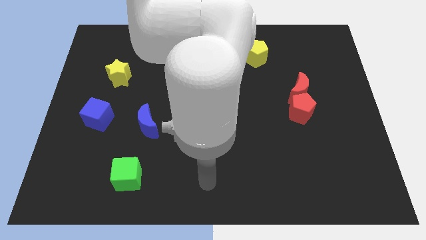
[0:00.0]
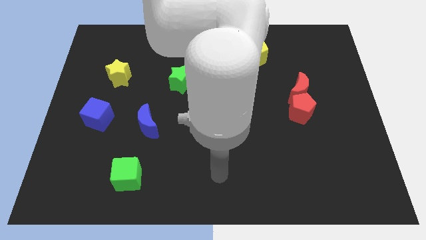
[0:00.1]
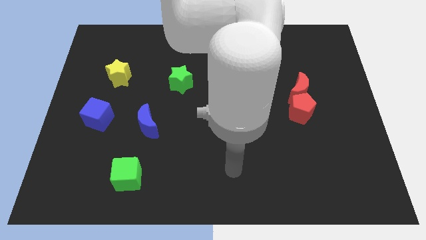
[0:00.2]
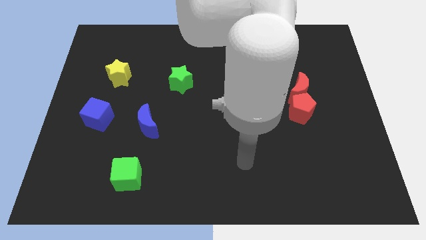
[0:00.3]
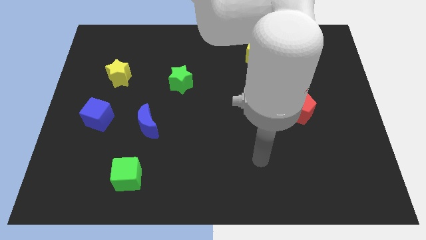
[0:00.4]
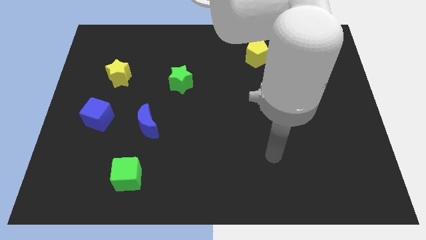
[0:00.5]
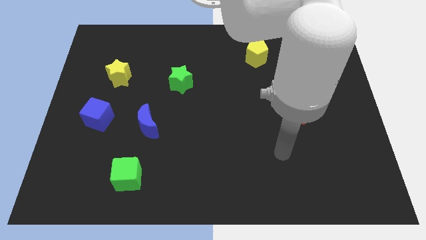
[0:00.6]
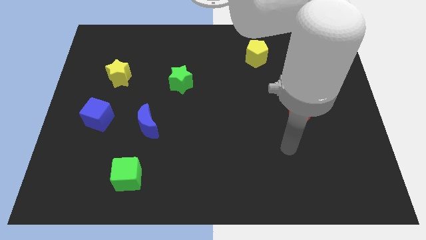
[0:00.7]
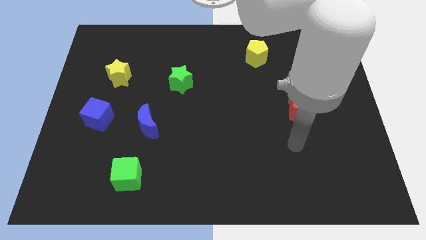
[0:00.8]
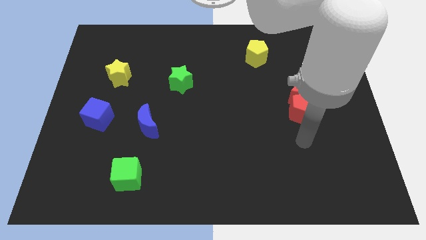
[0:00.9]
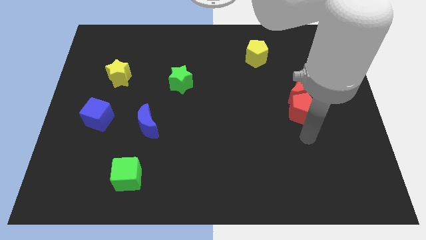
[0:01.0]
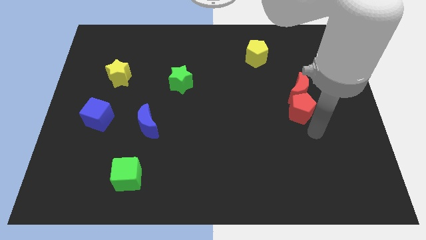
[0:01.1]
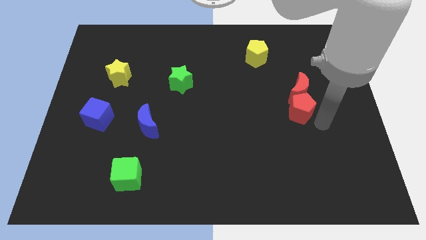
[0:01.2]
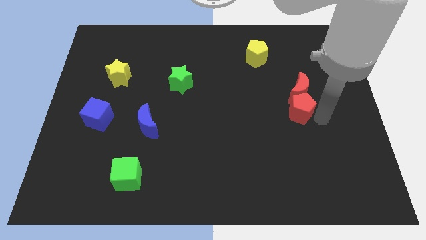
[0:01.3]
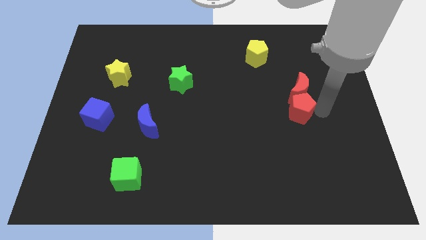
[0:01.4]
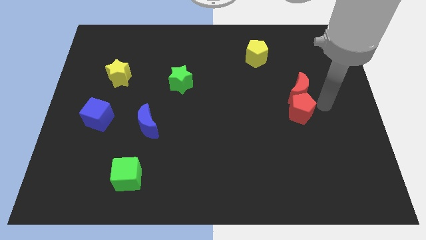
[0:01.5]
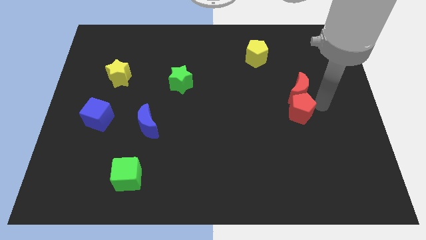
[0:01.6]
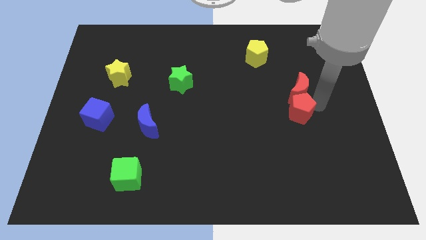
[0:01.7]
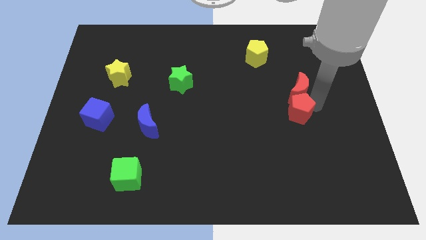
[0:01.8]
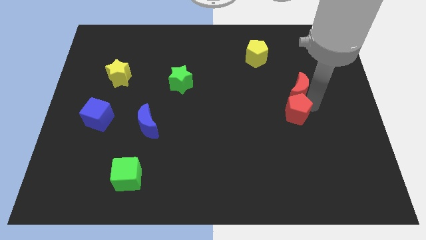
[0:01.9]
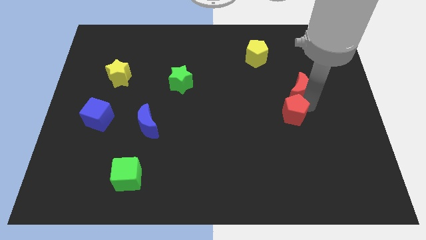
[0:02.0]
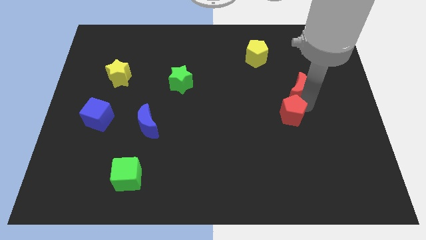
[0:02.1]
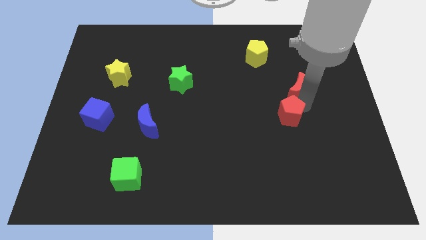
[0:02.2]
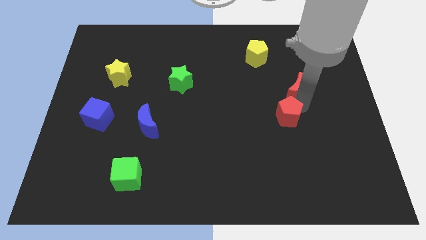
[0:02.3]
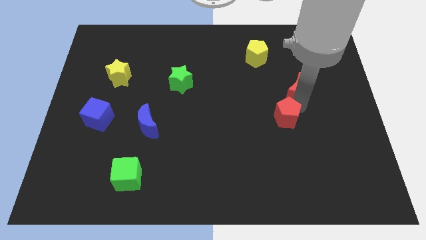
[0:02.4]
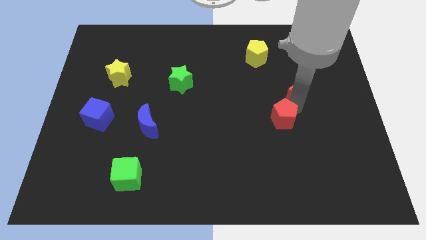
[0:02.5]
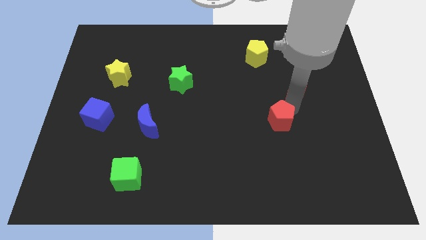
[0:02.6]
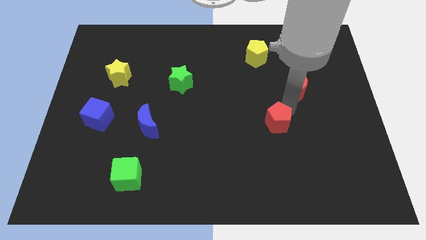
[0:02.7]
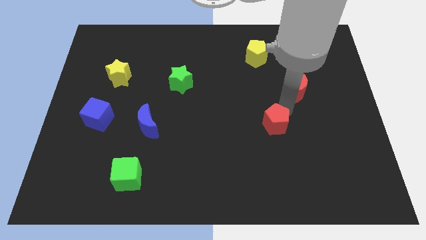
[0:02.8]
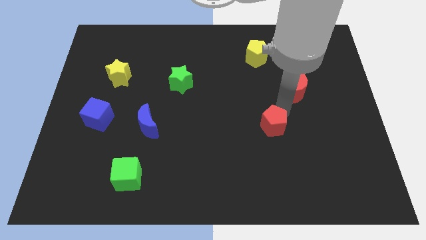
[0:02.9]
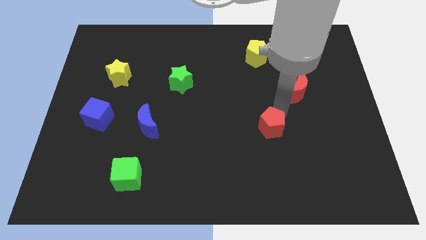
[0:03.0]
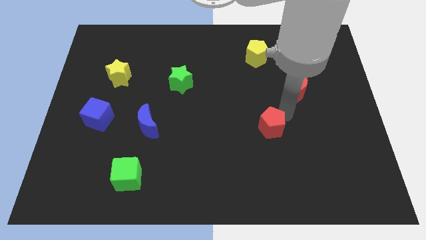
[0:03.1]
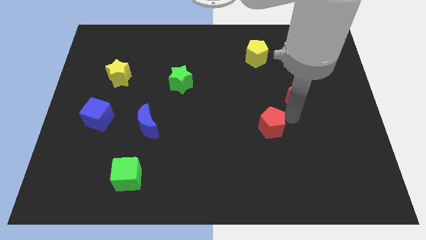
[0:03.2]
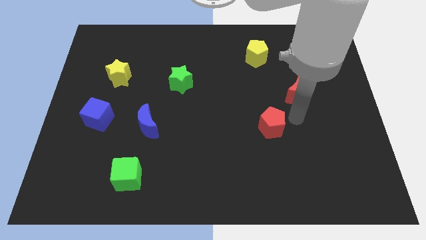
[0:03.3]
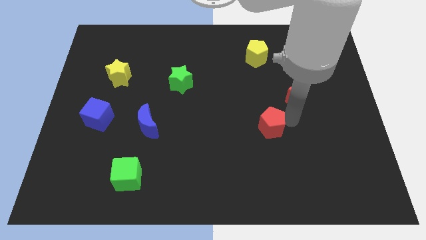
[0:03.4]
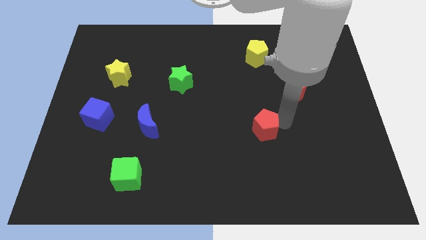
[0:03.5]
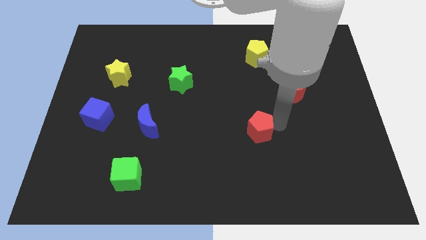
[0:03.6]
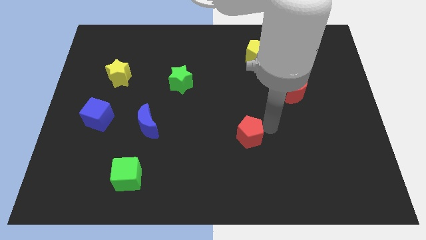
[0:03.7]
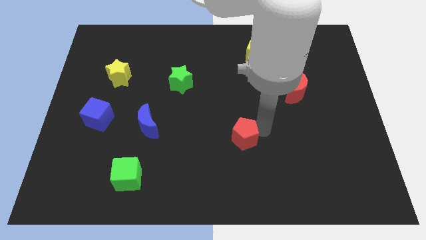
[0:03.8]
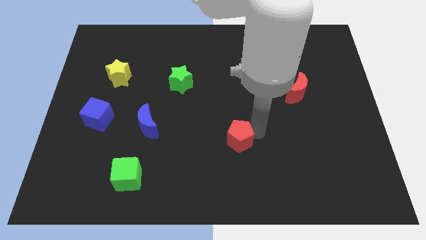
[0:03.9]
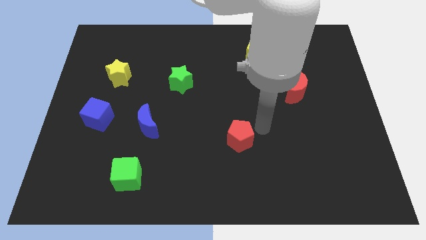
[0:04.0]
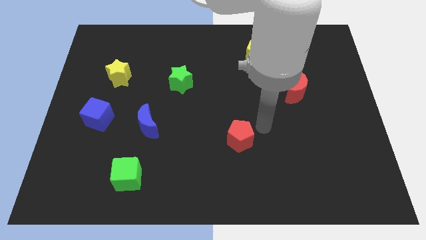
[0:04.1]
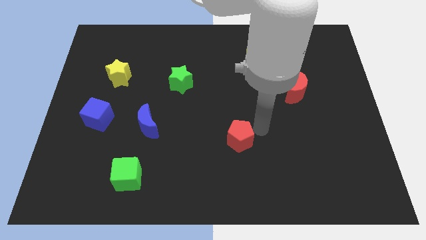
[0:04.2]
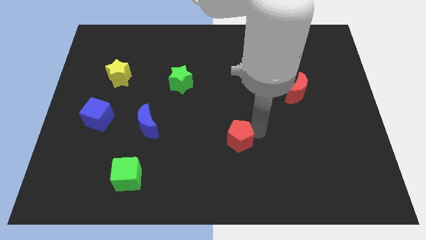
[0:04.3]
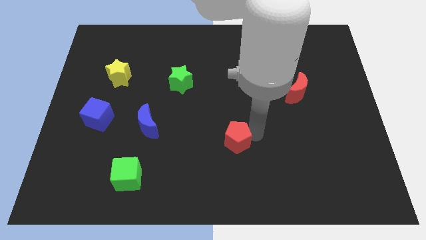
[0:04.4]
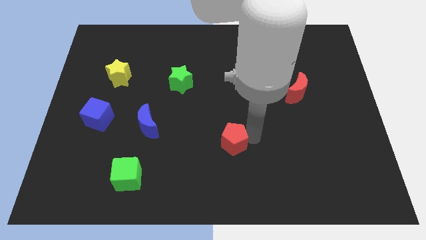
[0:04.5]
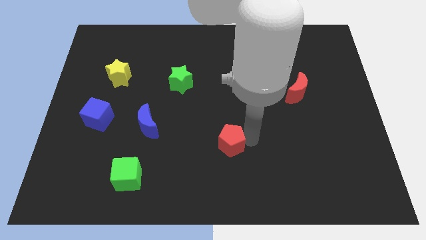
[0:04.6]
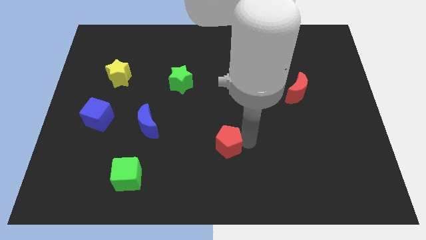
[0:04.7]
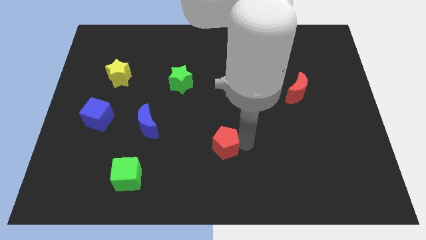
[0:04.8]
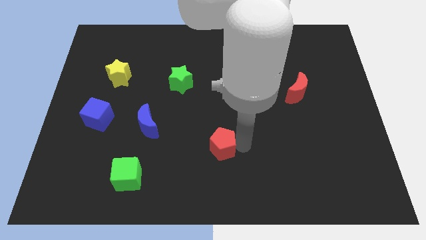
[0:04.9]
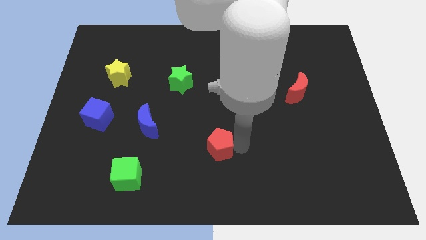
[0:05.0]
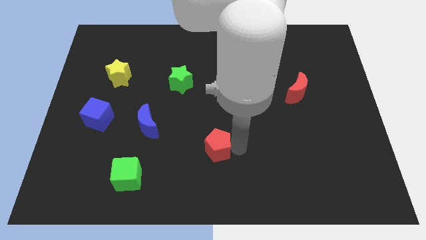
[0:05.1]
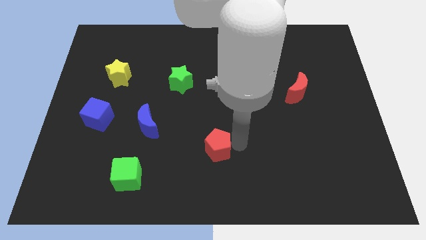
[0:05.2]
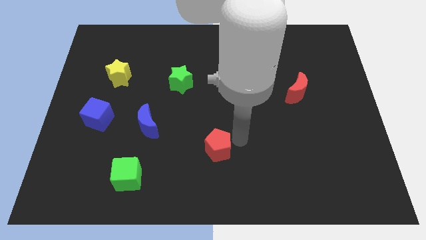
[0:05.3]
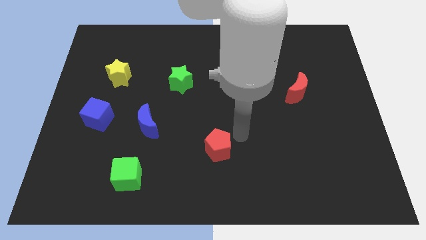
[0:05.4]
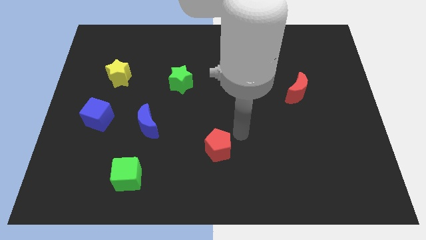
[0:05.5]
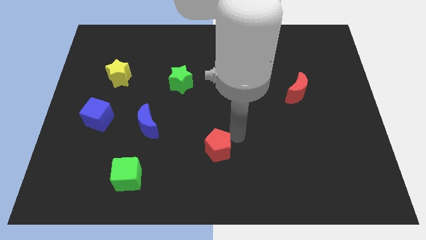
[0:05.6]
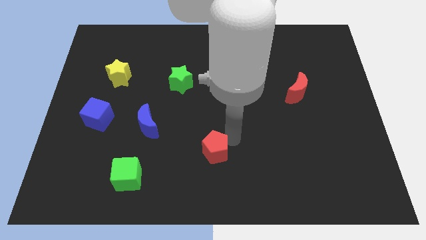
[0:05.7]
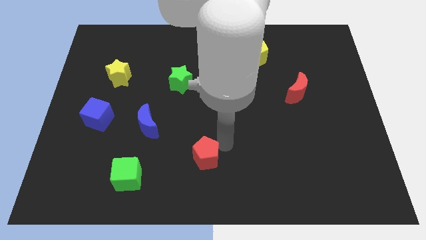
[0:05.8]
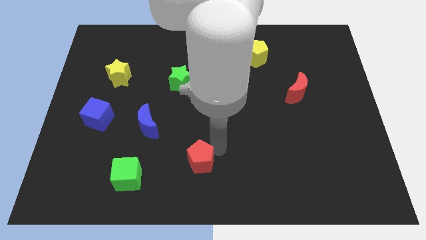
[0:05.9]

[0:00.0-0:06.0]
put the red pentagon to the right side of the green cube

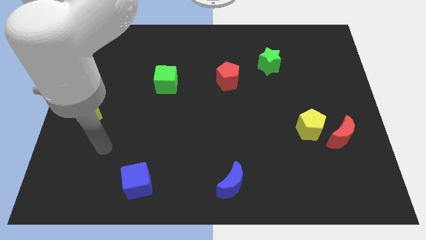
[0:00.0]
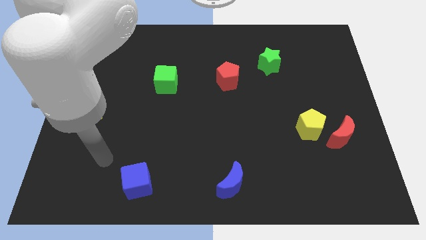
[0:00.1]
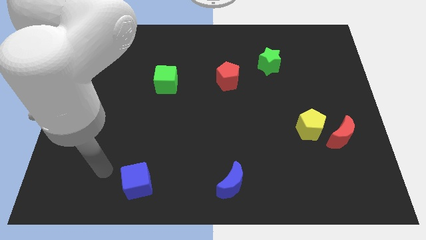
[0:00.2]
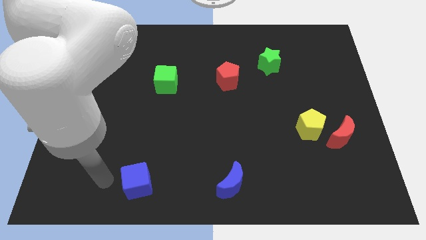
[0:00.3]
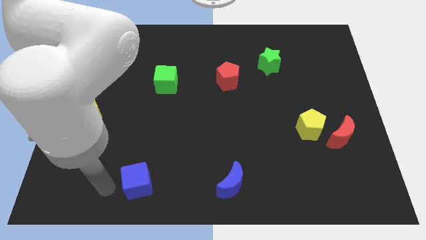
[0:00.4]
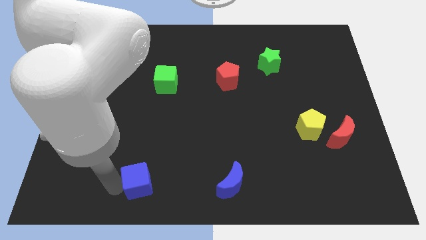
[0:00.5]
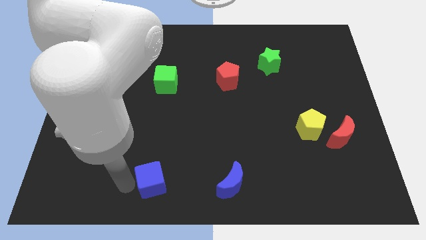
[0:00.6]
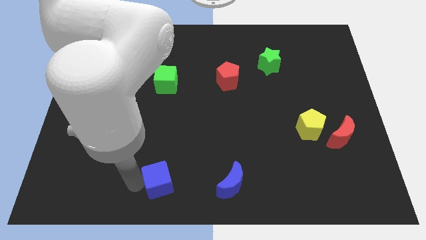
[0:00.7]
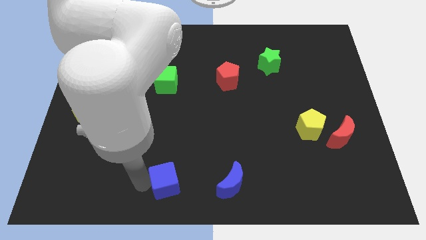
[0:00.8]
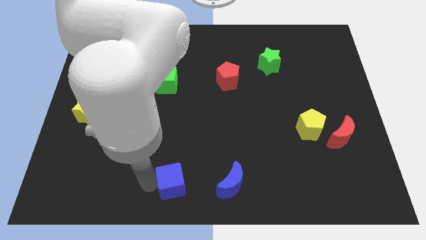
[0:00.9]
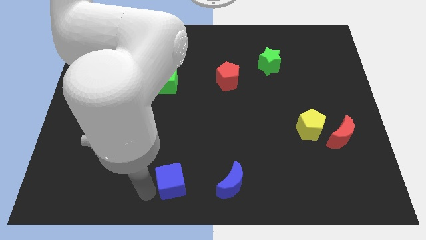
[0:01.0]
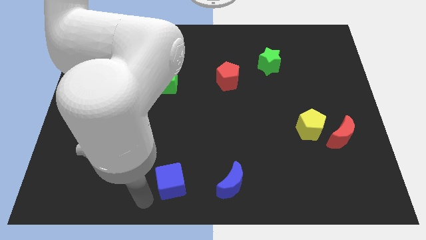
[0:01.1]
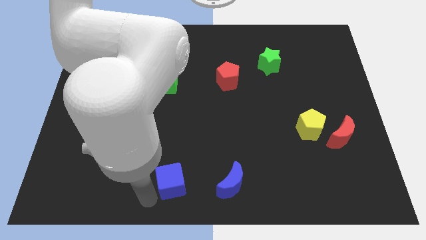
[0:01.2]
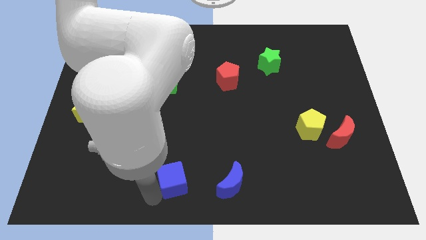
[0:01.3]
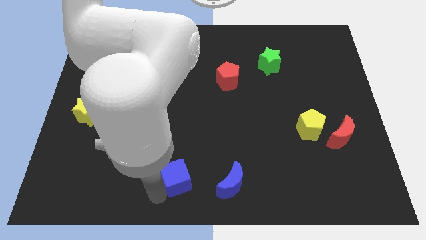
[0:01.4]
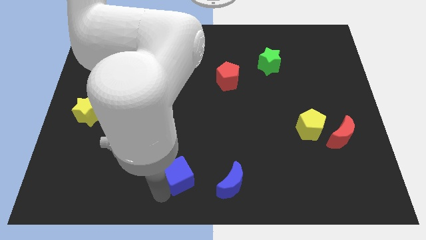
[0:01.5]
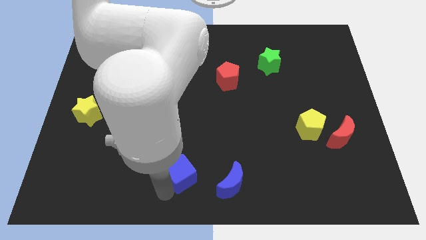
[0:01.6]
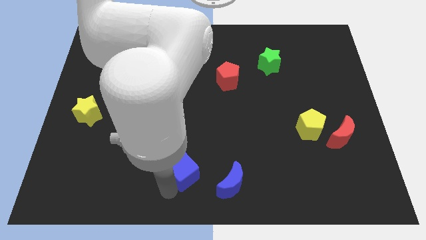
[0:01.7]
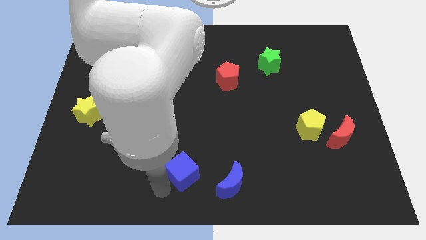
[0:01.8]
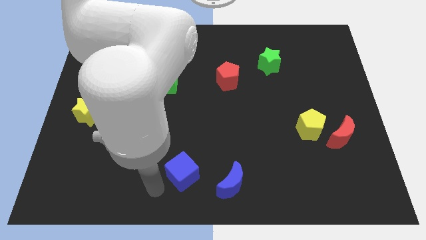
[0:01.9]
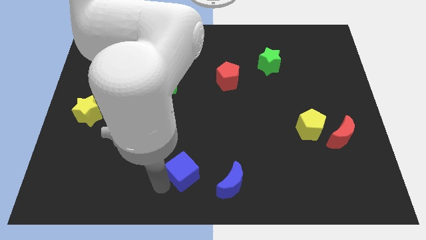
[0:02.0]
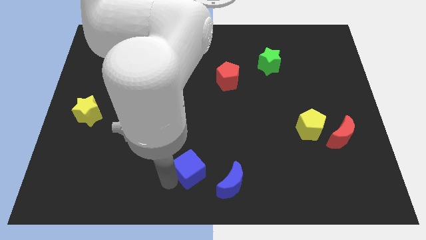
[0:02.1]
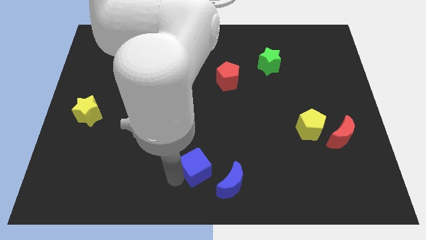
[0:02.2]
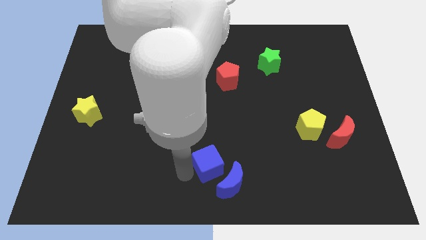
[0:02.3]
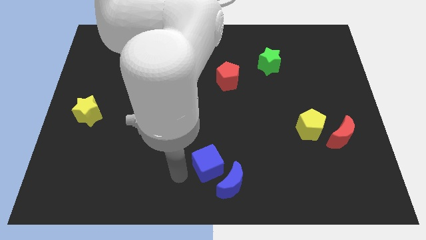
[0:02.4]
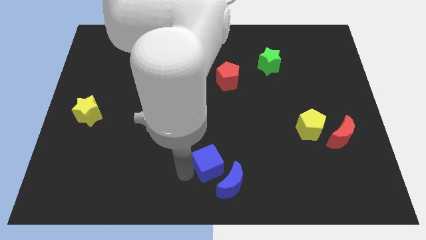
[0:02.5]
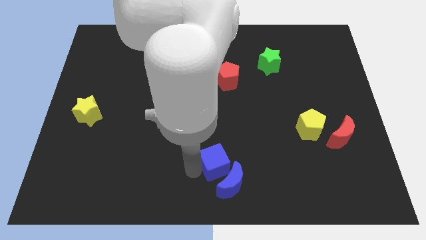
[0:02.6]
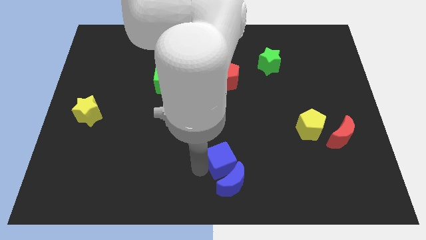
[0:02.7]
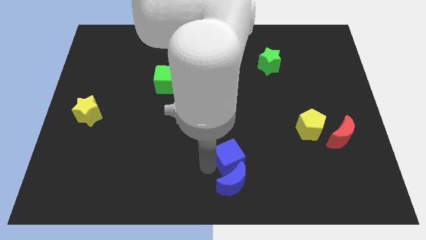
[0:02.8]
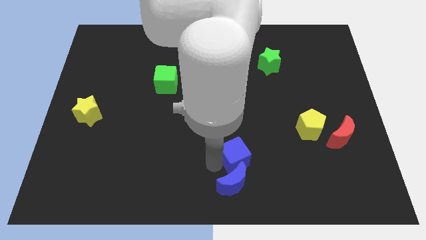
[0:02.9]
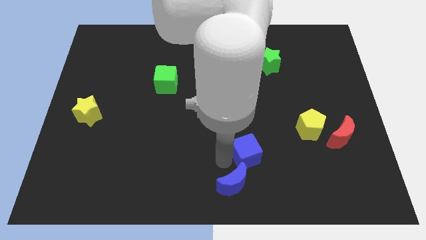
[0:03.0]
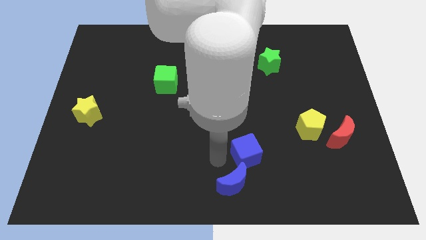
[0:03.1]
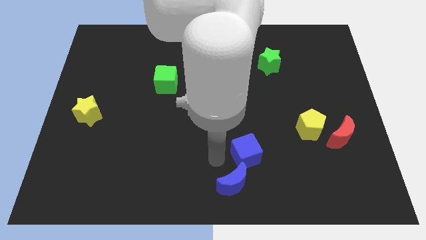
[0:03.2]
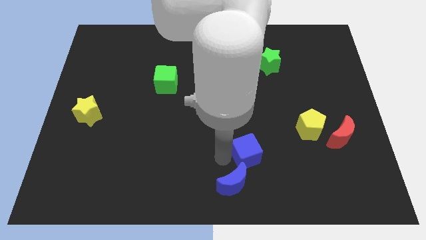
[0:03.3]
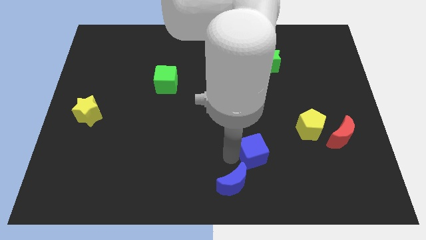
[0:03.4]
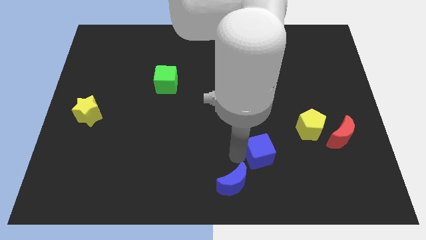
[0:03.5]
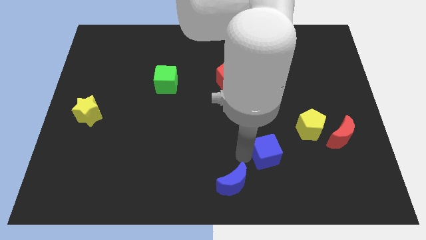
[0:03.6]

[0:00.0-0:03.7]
move the blue cube to the bottom left side of the yellow pentagon
